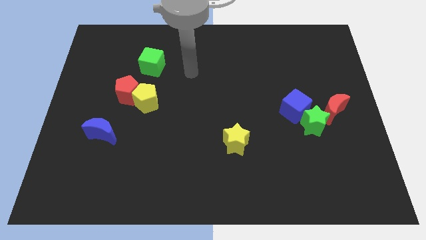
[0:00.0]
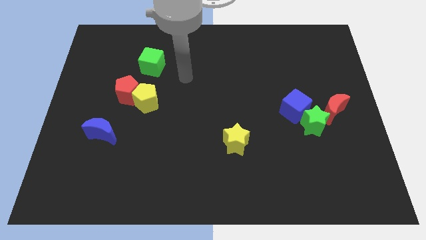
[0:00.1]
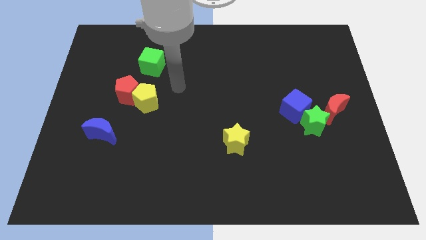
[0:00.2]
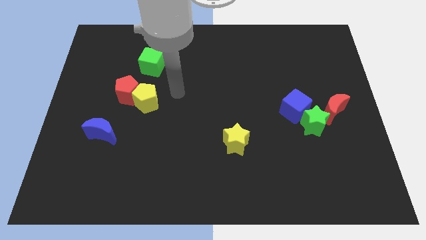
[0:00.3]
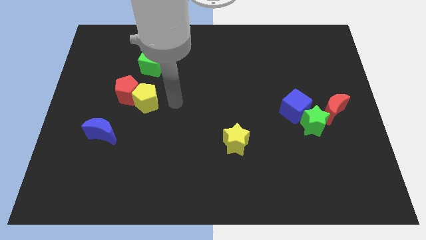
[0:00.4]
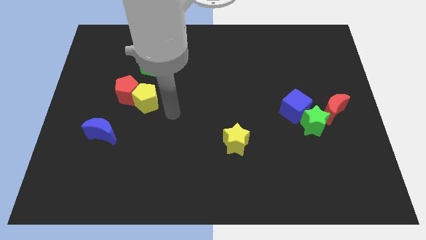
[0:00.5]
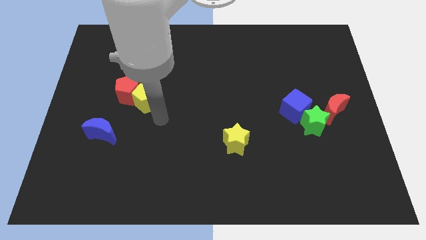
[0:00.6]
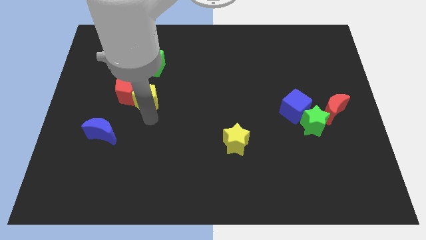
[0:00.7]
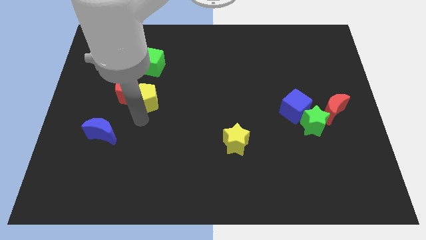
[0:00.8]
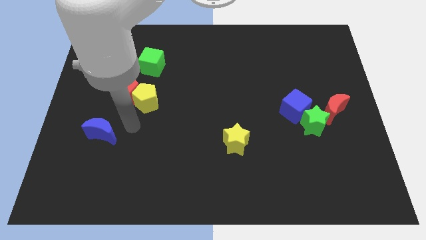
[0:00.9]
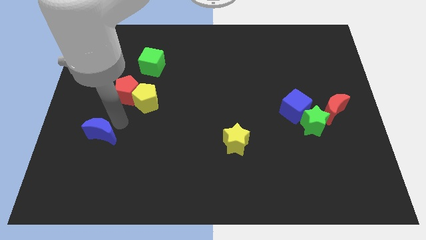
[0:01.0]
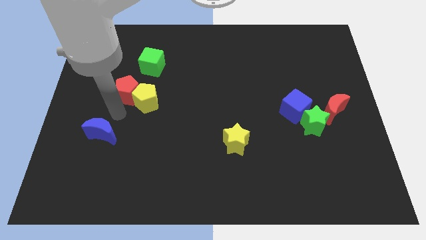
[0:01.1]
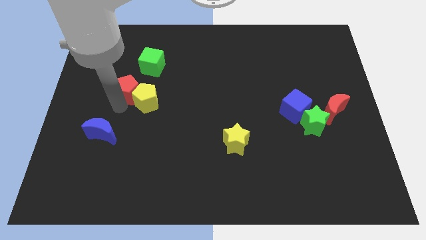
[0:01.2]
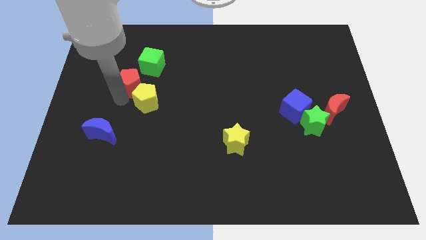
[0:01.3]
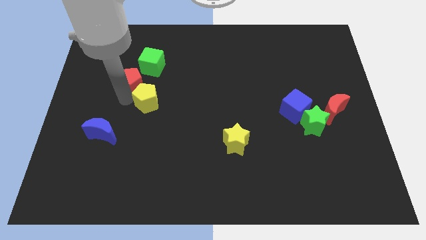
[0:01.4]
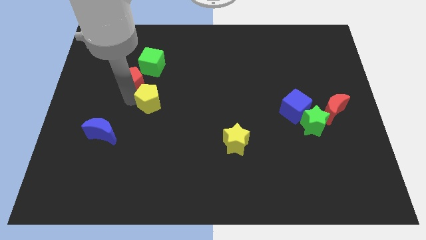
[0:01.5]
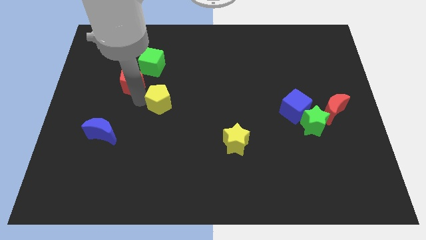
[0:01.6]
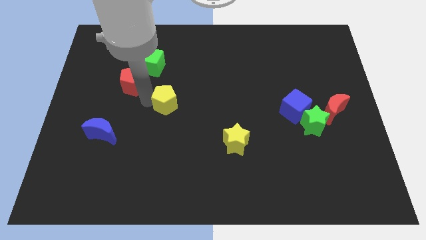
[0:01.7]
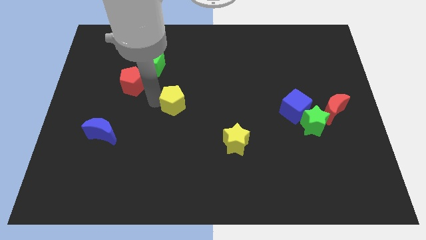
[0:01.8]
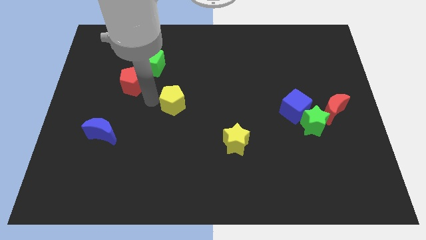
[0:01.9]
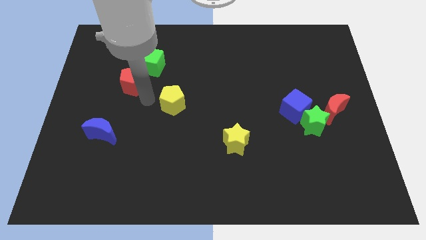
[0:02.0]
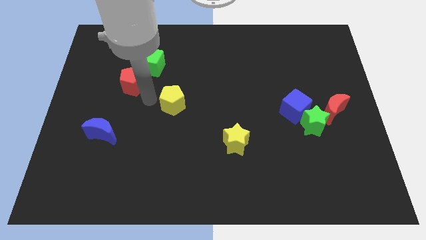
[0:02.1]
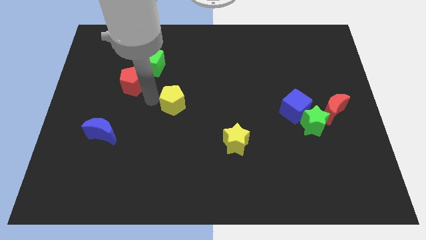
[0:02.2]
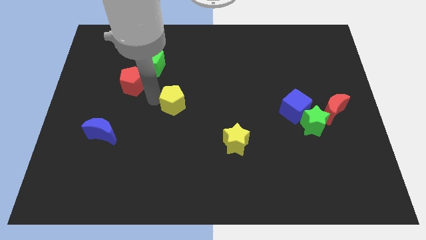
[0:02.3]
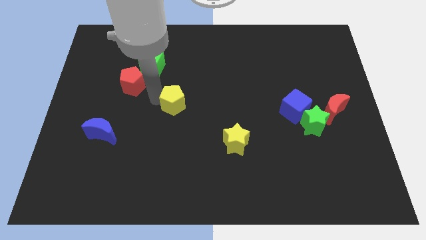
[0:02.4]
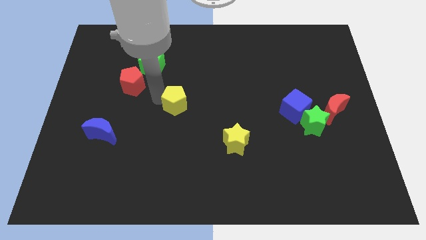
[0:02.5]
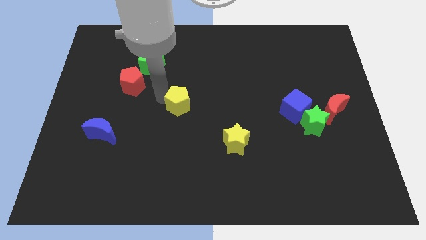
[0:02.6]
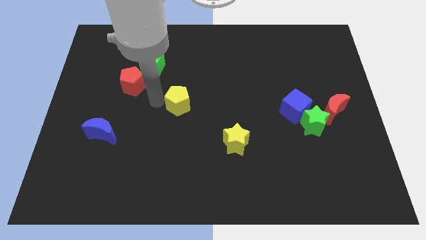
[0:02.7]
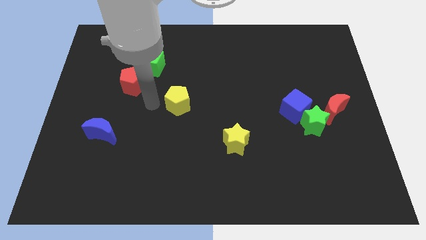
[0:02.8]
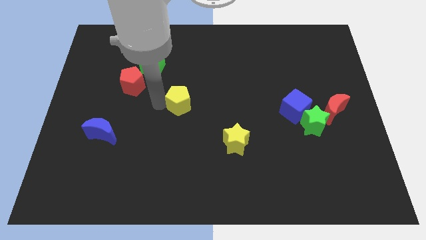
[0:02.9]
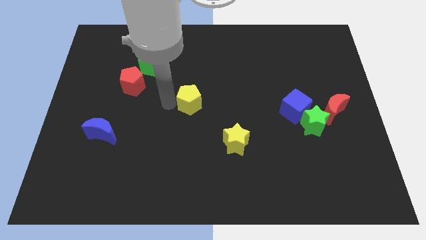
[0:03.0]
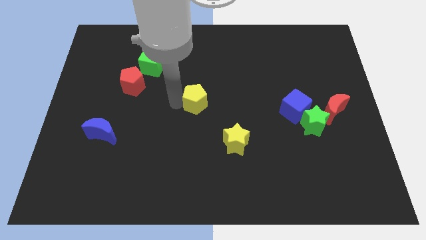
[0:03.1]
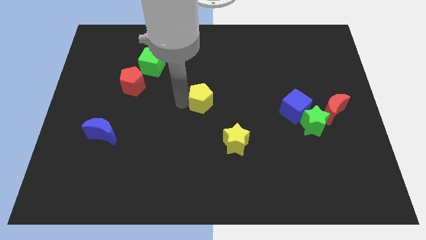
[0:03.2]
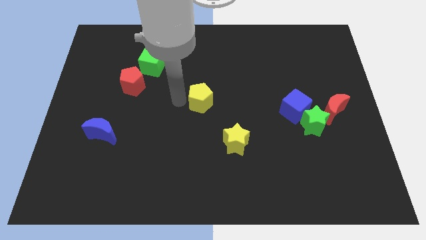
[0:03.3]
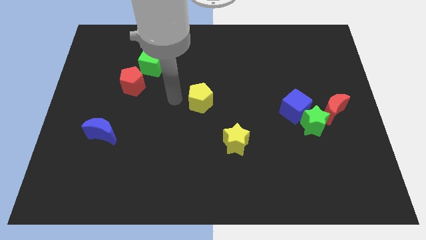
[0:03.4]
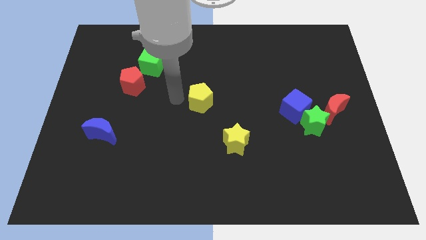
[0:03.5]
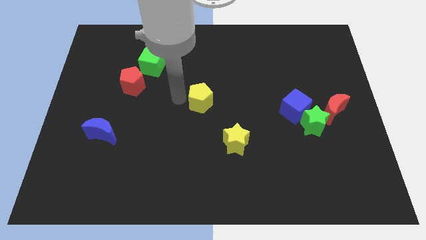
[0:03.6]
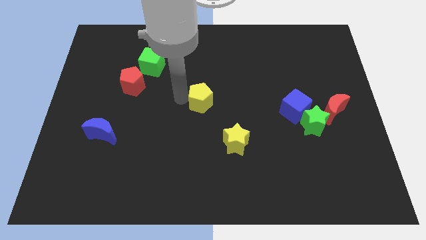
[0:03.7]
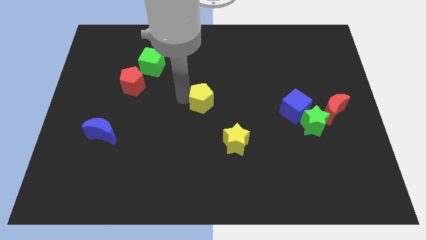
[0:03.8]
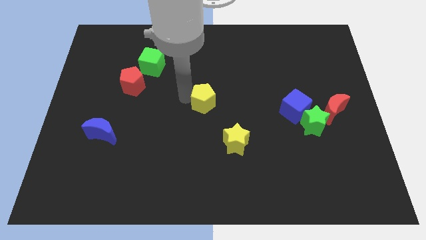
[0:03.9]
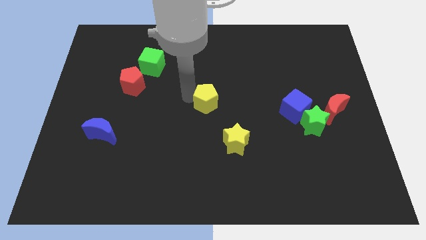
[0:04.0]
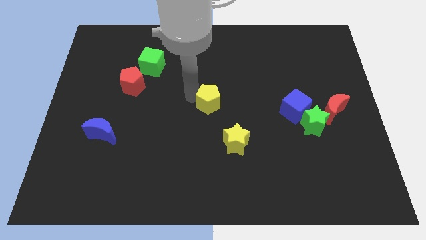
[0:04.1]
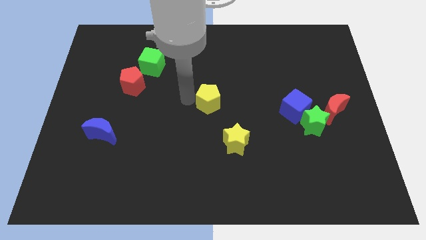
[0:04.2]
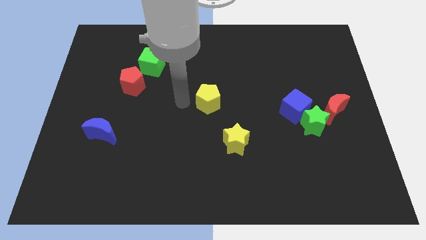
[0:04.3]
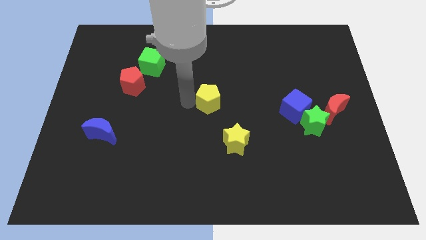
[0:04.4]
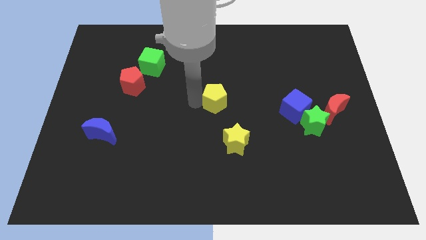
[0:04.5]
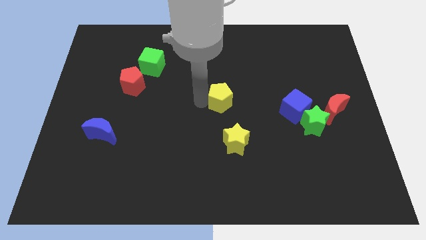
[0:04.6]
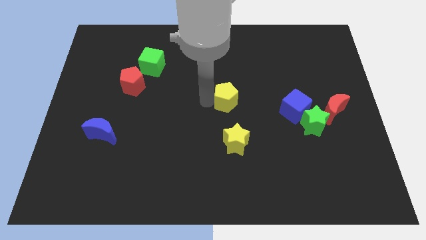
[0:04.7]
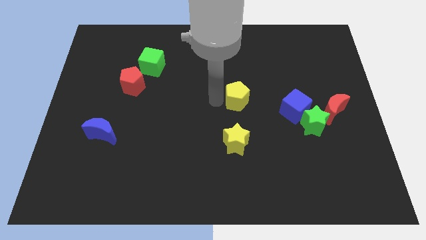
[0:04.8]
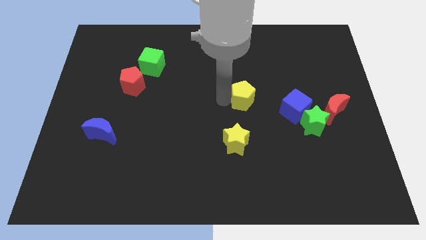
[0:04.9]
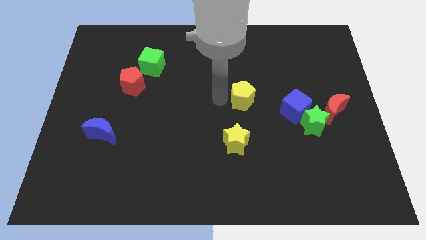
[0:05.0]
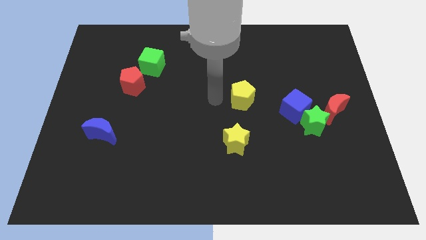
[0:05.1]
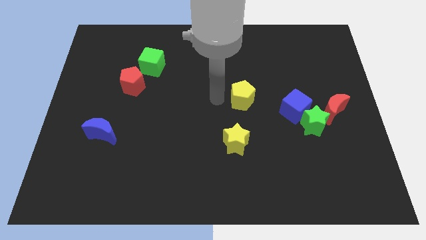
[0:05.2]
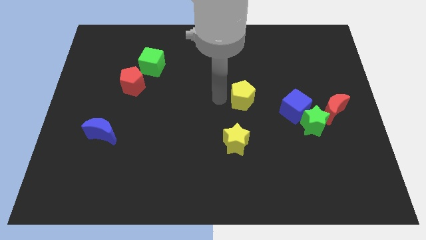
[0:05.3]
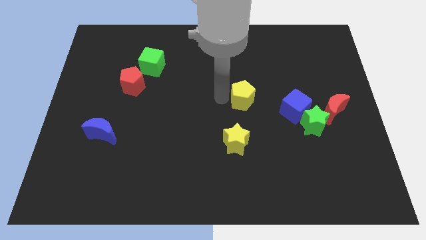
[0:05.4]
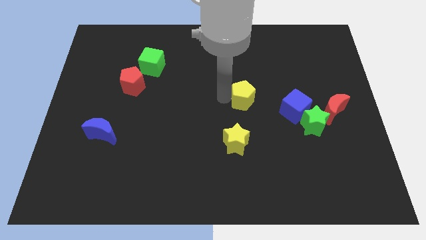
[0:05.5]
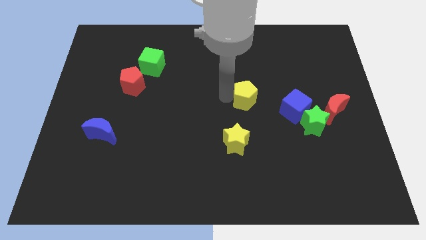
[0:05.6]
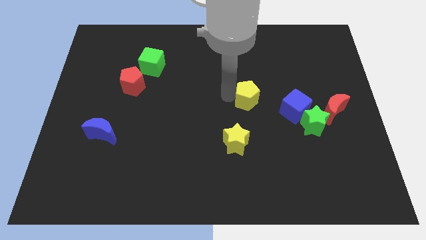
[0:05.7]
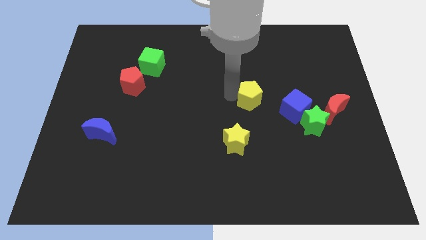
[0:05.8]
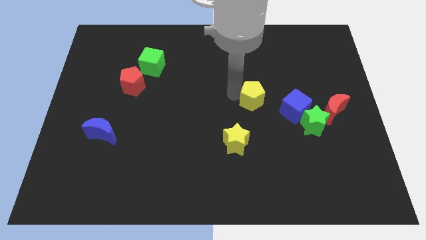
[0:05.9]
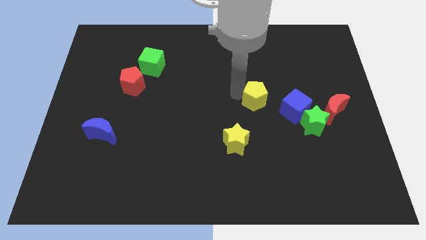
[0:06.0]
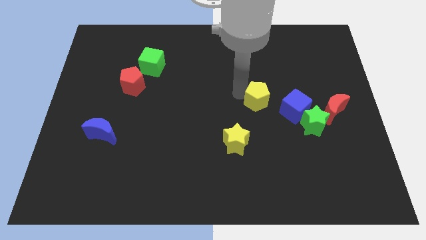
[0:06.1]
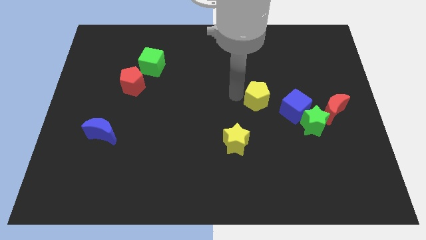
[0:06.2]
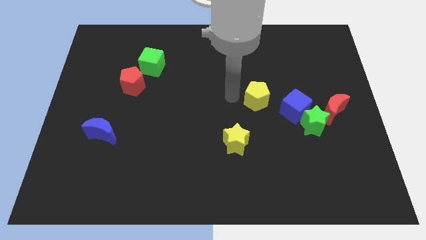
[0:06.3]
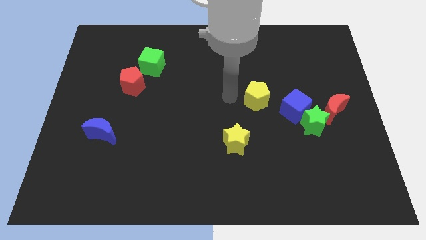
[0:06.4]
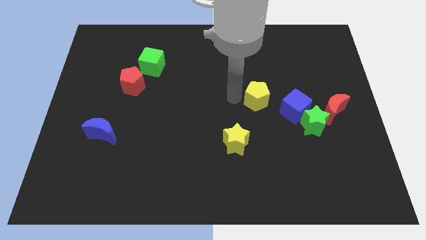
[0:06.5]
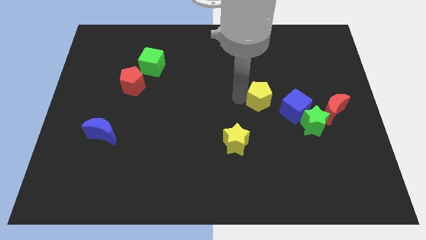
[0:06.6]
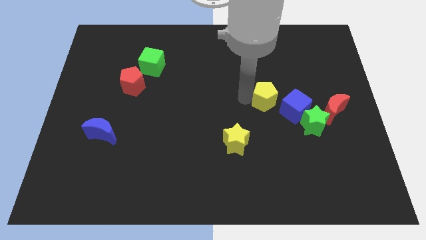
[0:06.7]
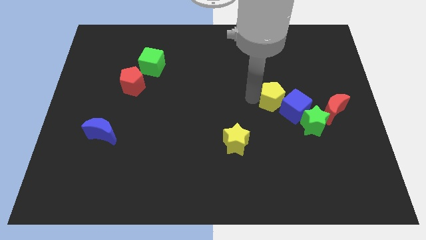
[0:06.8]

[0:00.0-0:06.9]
slide the yellow pentagon to the blue cube
